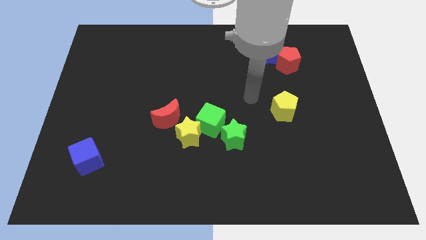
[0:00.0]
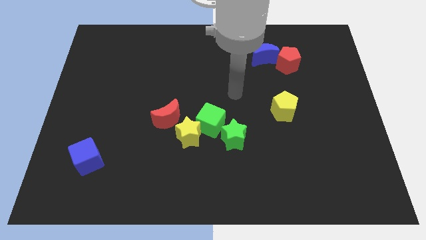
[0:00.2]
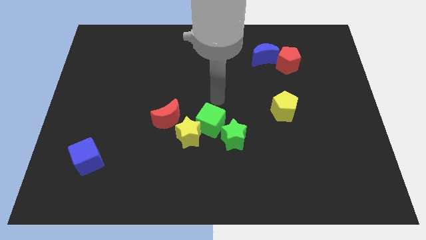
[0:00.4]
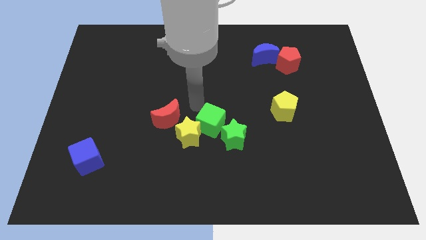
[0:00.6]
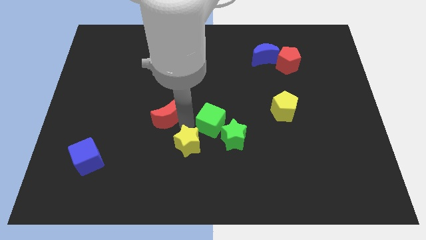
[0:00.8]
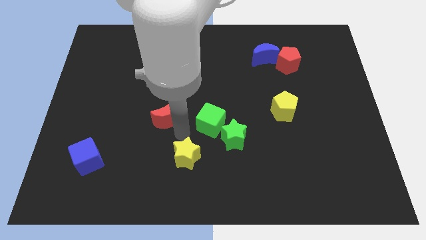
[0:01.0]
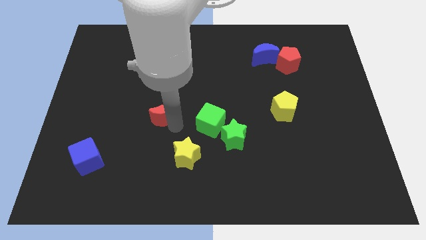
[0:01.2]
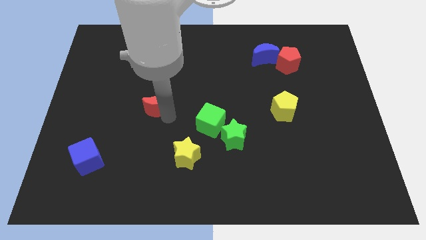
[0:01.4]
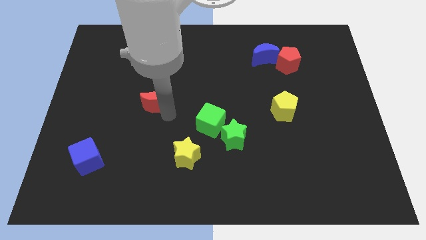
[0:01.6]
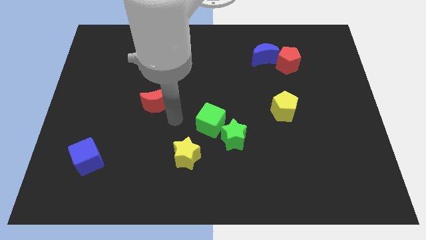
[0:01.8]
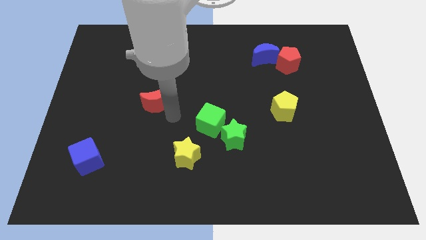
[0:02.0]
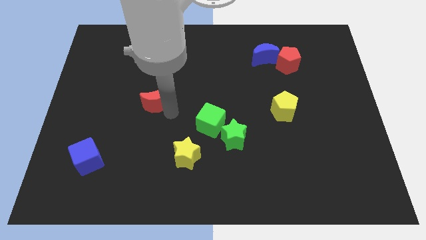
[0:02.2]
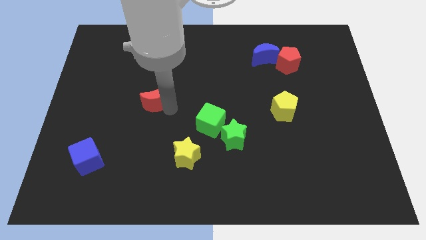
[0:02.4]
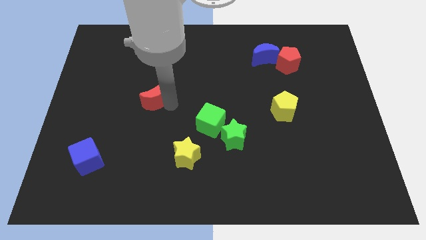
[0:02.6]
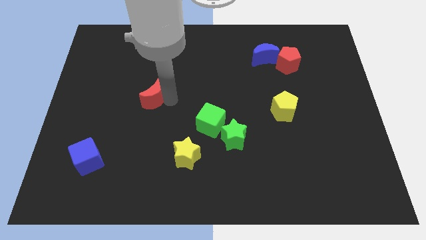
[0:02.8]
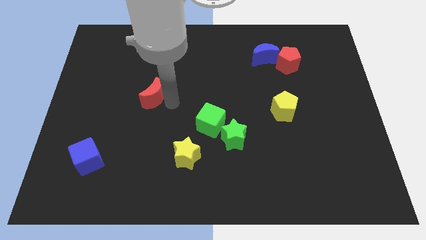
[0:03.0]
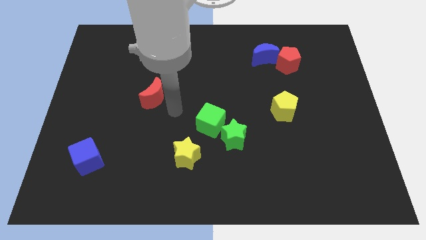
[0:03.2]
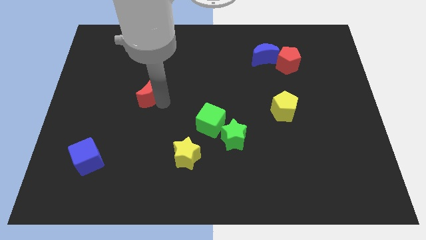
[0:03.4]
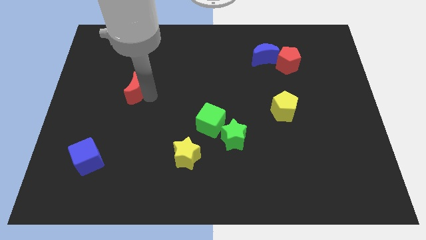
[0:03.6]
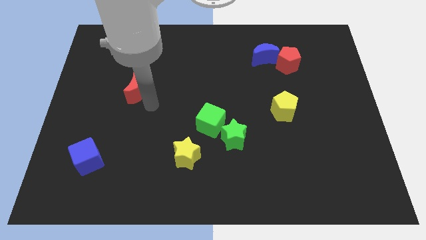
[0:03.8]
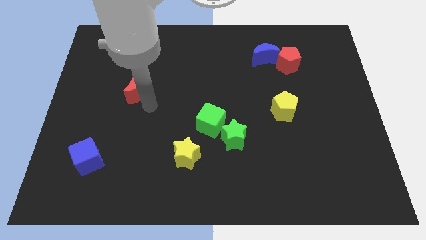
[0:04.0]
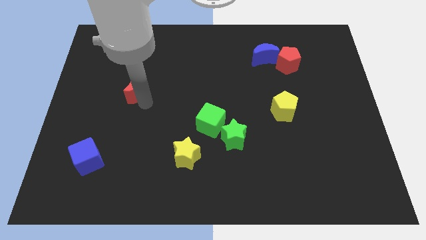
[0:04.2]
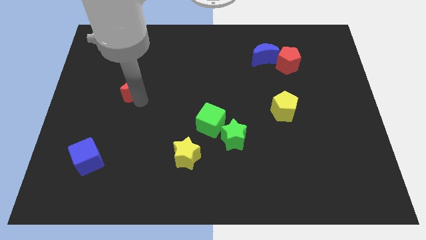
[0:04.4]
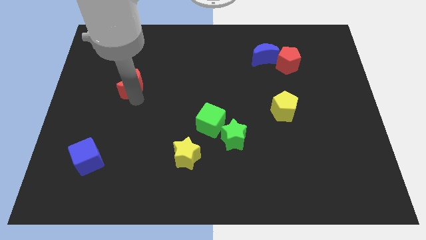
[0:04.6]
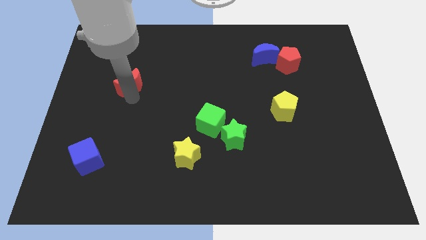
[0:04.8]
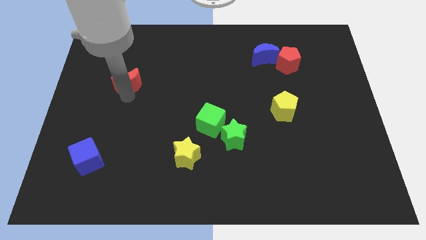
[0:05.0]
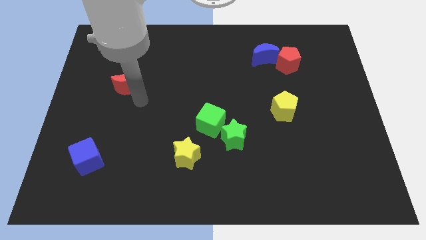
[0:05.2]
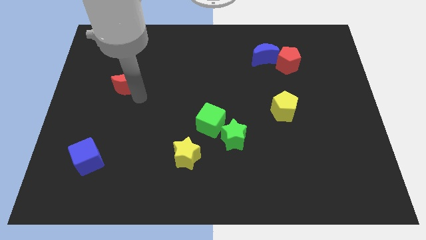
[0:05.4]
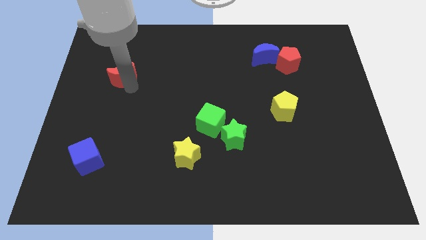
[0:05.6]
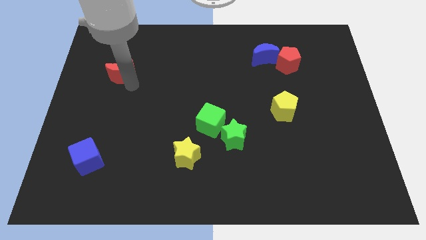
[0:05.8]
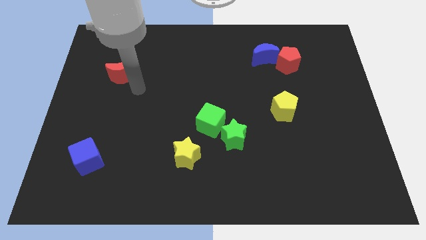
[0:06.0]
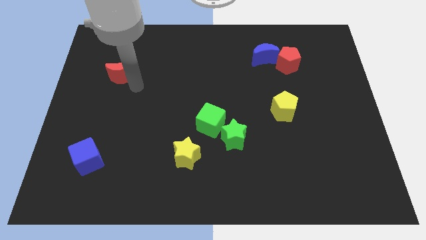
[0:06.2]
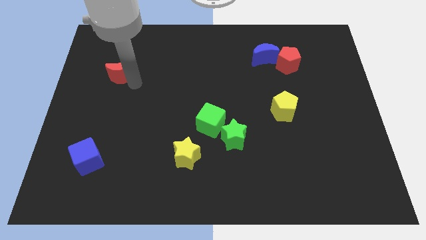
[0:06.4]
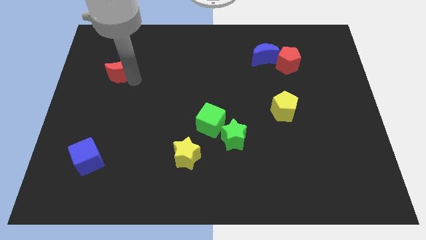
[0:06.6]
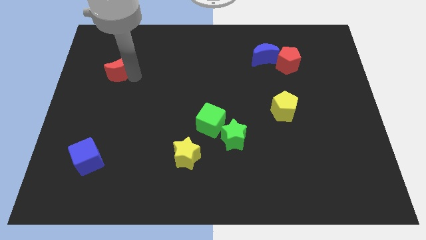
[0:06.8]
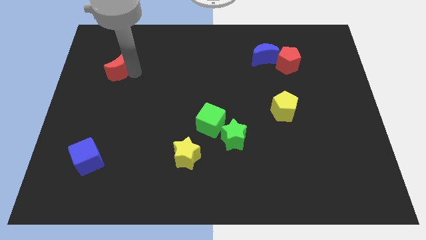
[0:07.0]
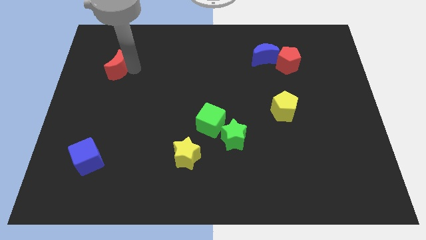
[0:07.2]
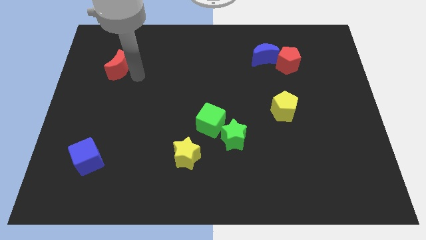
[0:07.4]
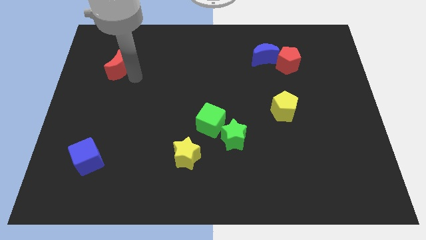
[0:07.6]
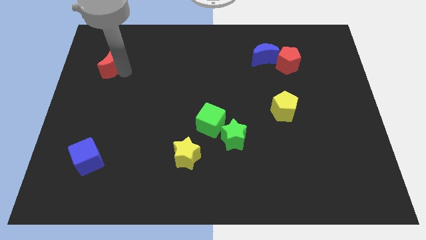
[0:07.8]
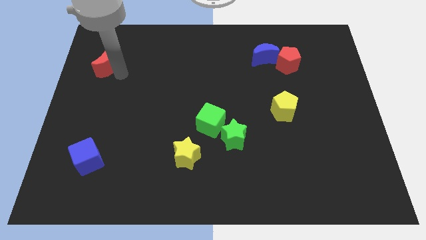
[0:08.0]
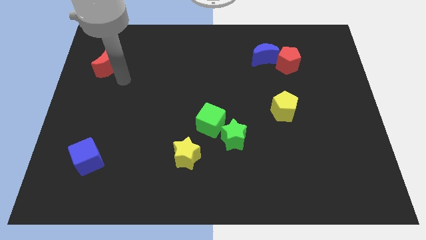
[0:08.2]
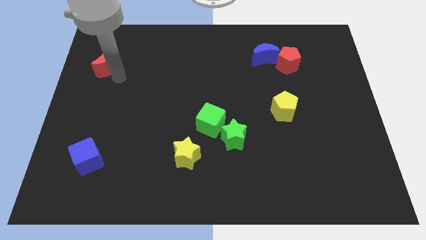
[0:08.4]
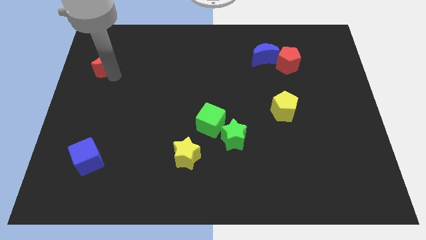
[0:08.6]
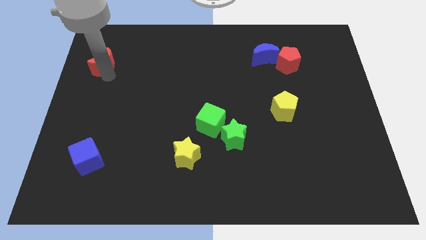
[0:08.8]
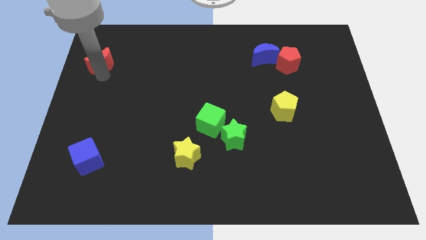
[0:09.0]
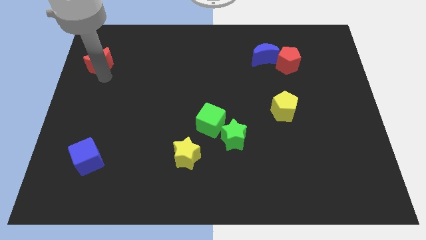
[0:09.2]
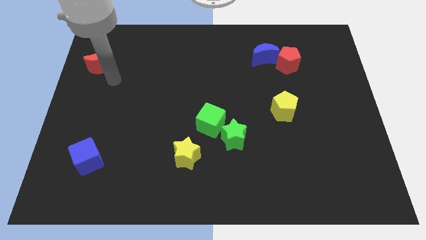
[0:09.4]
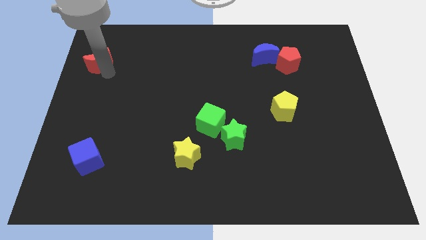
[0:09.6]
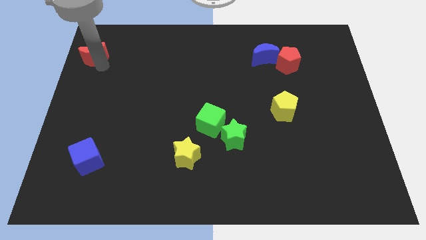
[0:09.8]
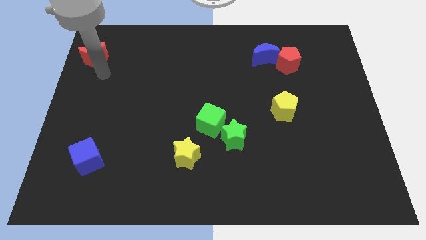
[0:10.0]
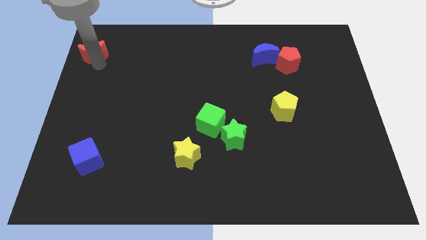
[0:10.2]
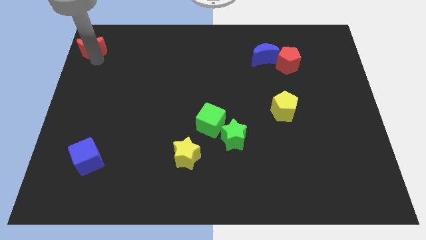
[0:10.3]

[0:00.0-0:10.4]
move the red moon to the top left corner

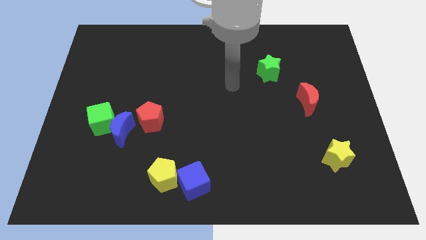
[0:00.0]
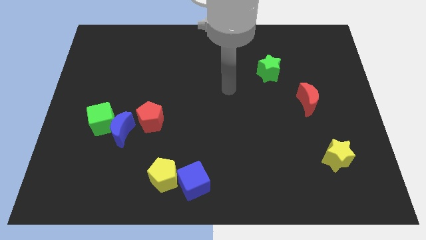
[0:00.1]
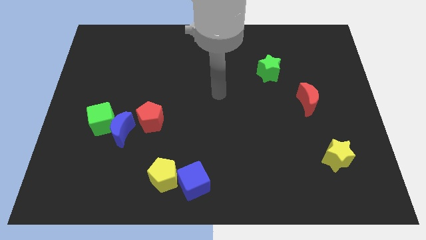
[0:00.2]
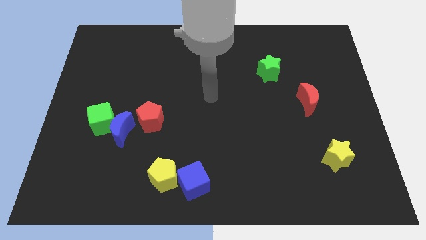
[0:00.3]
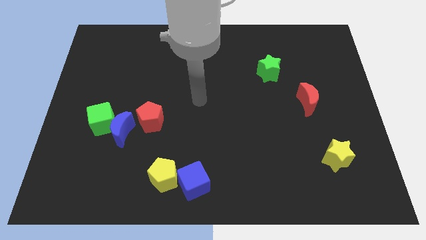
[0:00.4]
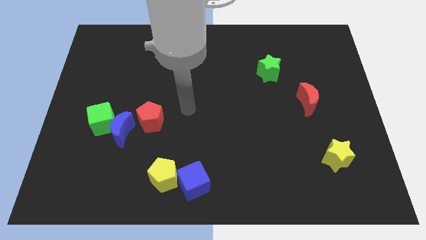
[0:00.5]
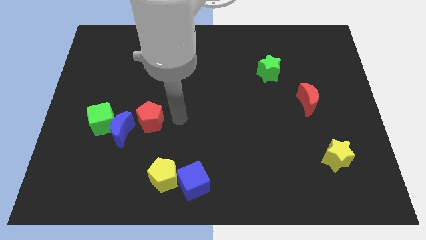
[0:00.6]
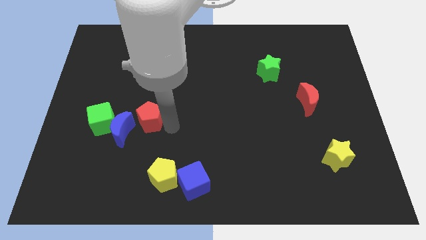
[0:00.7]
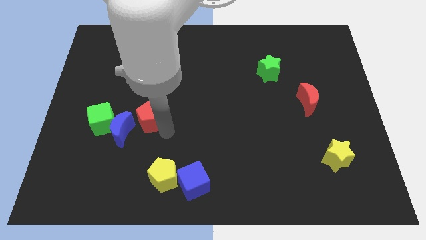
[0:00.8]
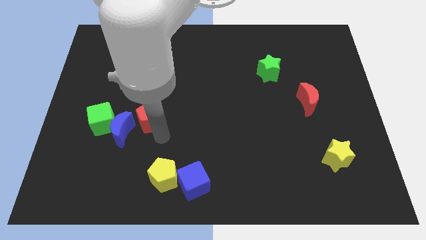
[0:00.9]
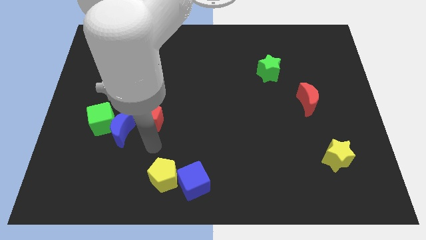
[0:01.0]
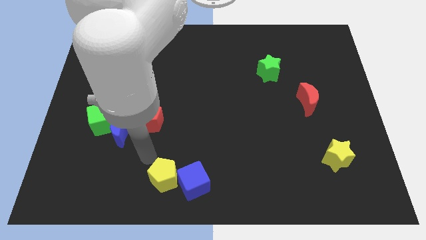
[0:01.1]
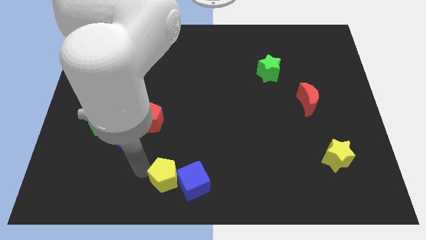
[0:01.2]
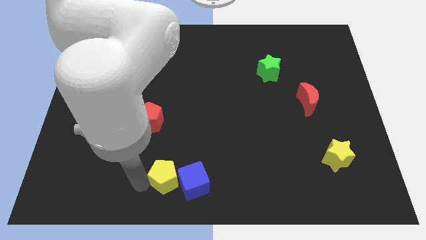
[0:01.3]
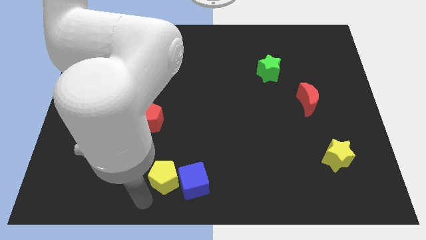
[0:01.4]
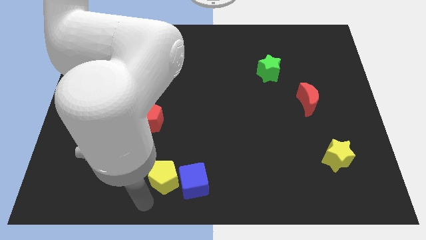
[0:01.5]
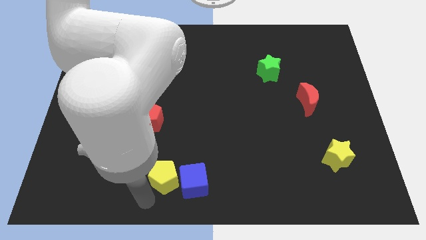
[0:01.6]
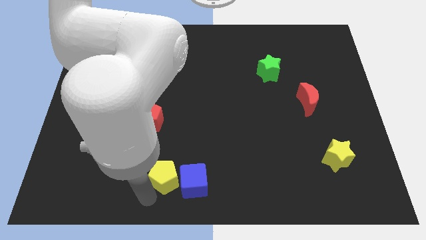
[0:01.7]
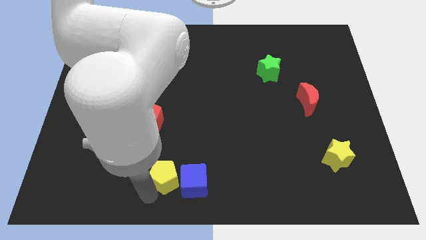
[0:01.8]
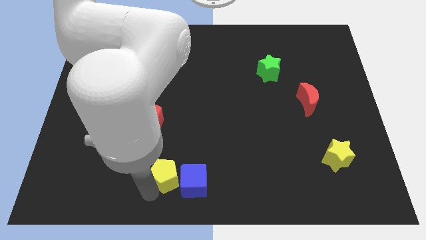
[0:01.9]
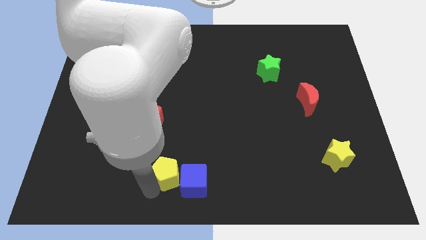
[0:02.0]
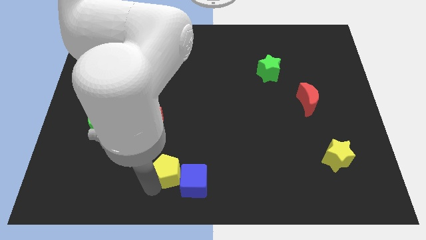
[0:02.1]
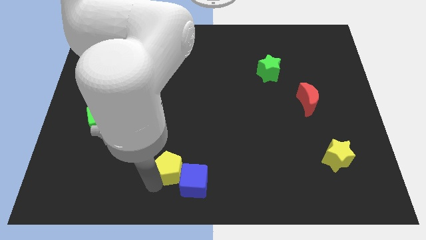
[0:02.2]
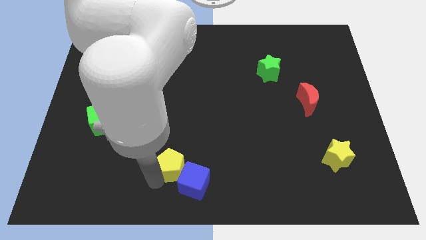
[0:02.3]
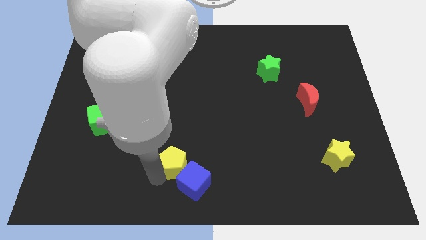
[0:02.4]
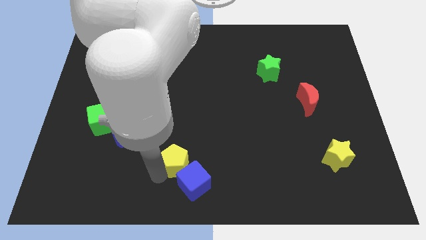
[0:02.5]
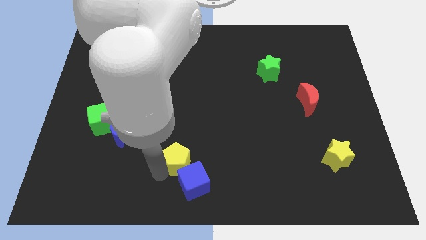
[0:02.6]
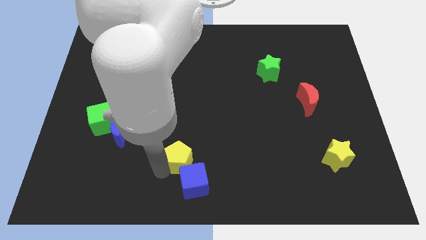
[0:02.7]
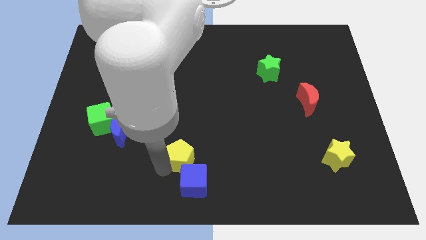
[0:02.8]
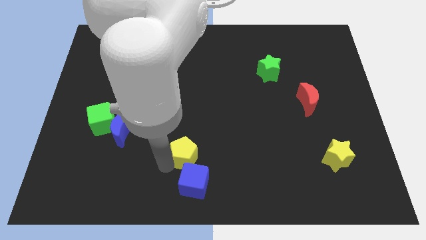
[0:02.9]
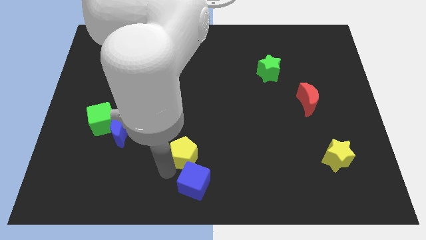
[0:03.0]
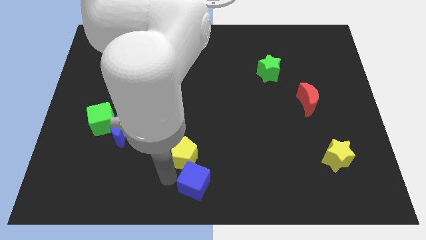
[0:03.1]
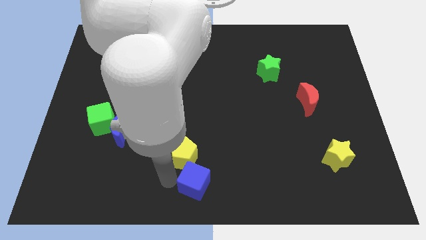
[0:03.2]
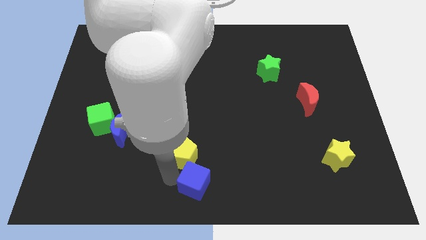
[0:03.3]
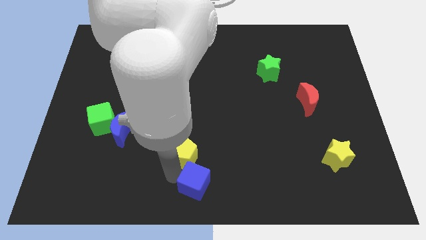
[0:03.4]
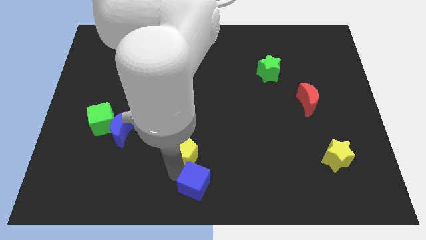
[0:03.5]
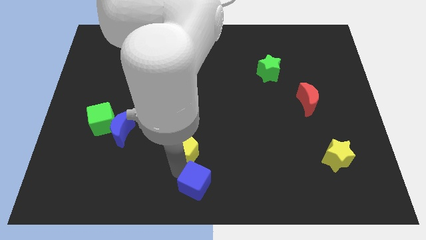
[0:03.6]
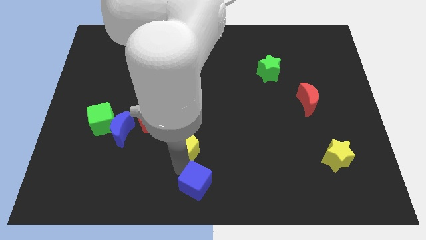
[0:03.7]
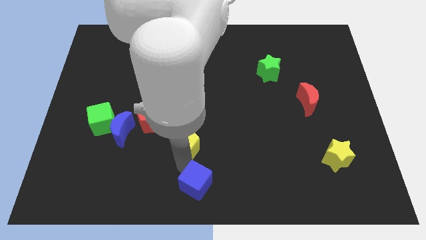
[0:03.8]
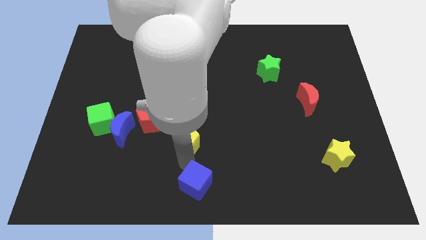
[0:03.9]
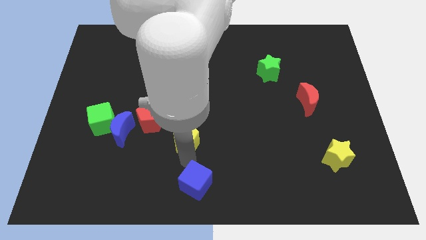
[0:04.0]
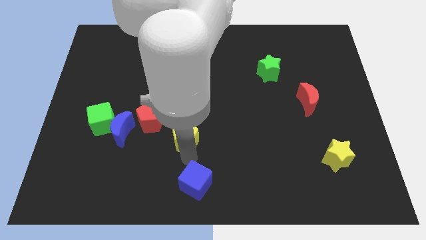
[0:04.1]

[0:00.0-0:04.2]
move the yellow pentagon to the center of the board
